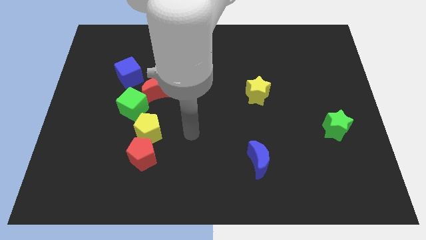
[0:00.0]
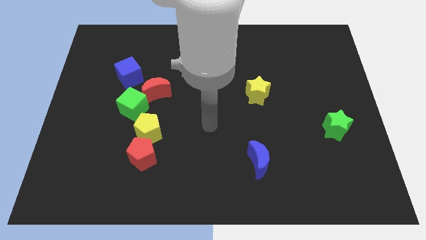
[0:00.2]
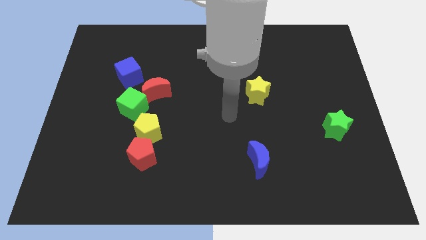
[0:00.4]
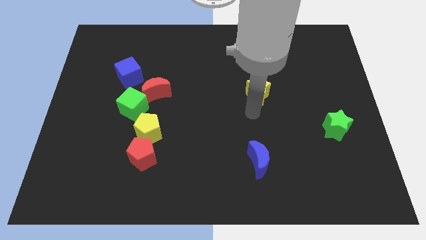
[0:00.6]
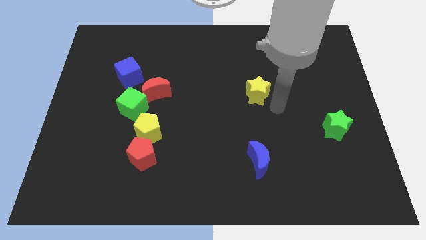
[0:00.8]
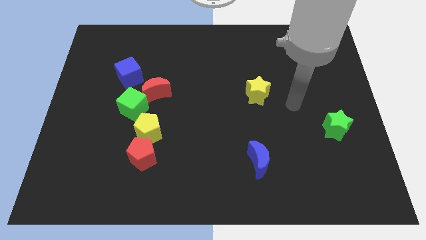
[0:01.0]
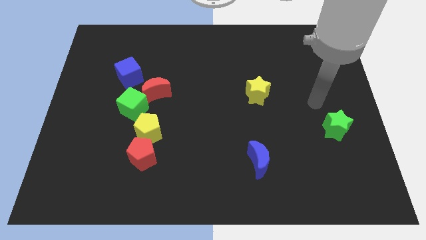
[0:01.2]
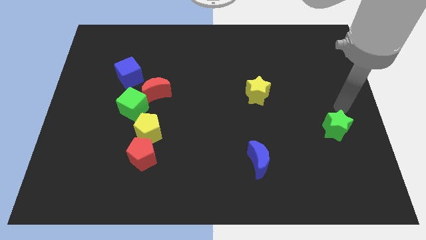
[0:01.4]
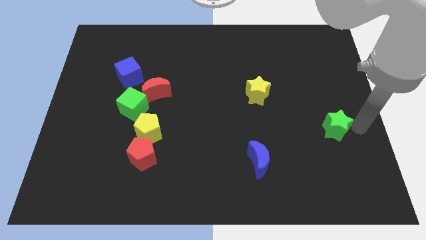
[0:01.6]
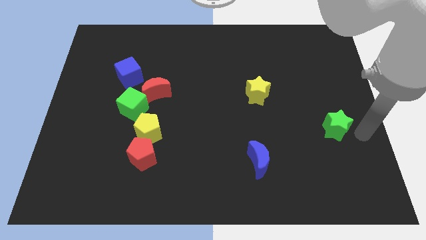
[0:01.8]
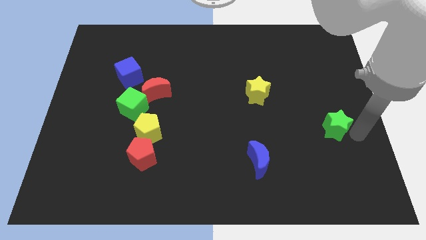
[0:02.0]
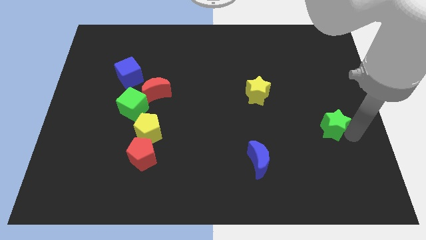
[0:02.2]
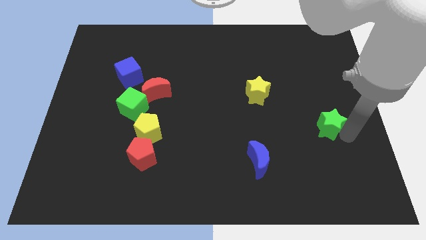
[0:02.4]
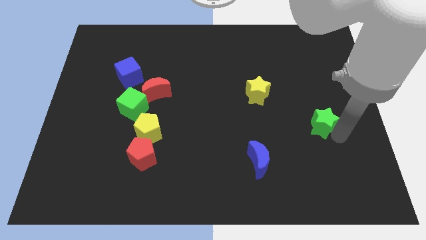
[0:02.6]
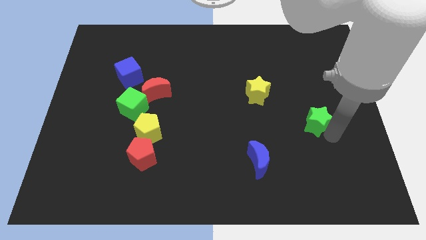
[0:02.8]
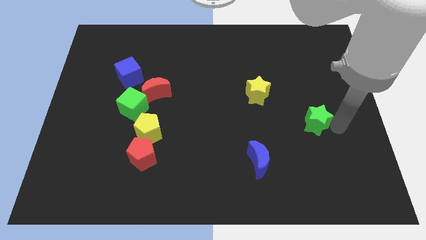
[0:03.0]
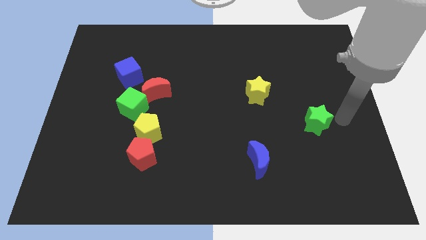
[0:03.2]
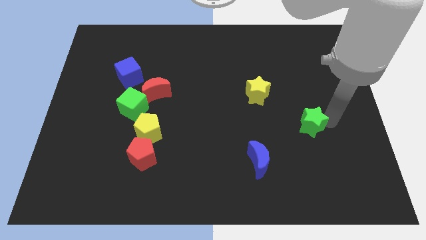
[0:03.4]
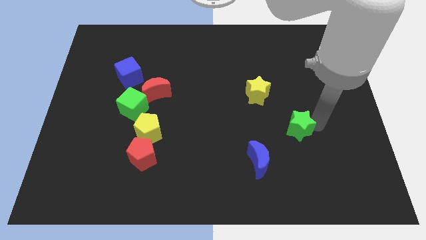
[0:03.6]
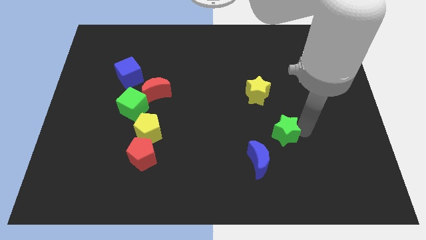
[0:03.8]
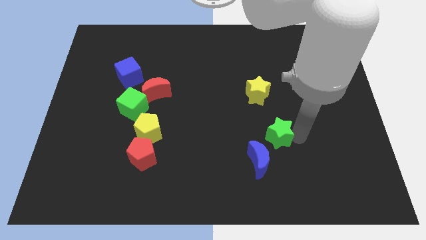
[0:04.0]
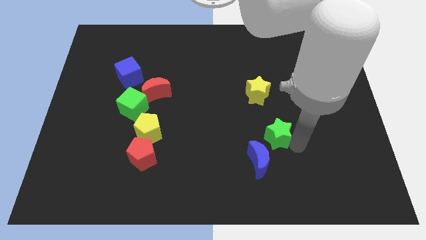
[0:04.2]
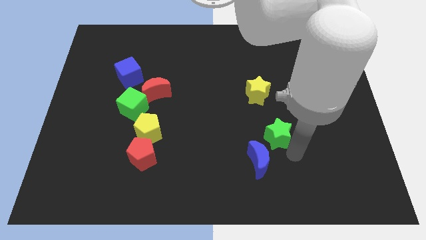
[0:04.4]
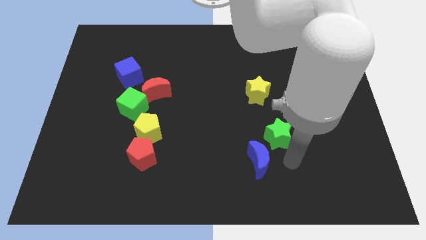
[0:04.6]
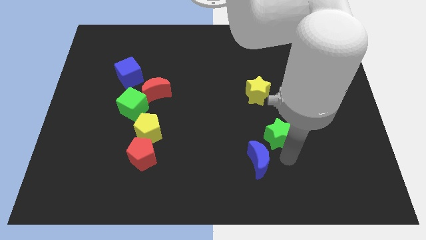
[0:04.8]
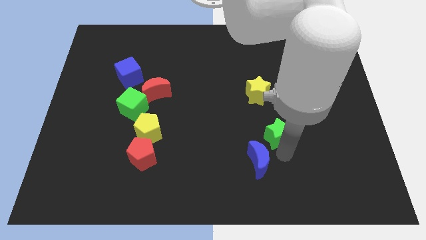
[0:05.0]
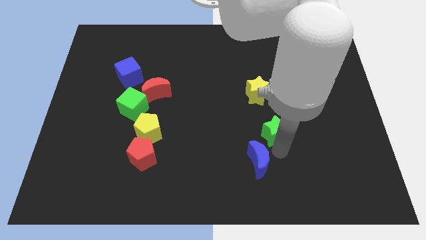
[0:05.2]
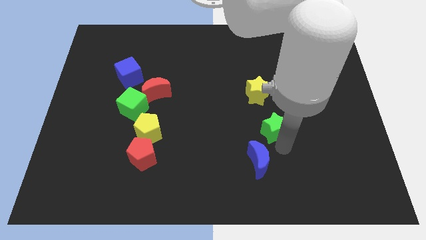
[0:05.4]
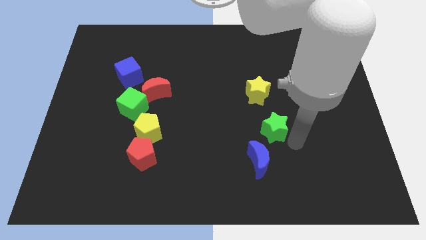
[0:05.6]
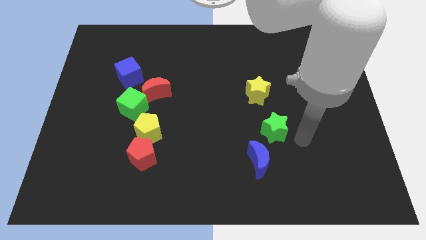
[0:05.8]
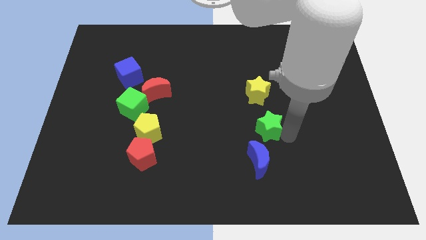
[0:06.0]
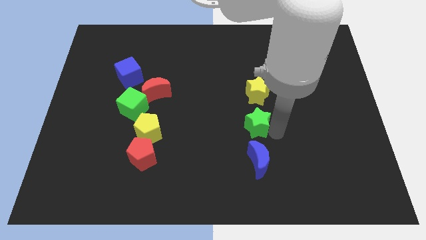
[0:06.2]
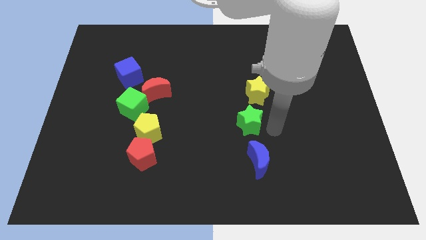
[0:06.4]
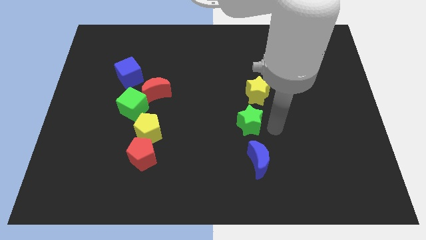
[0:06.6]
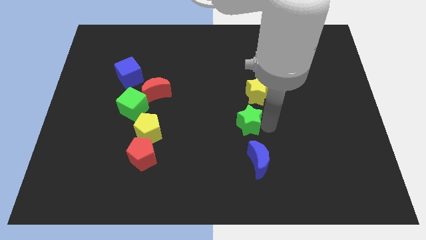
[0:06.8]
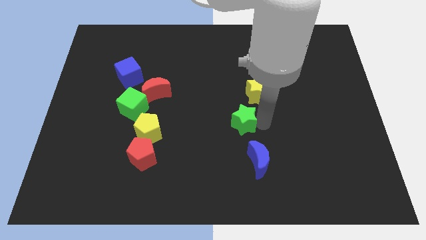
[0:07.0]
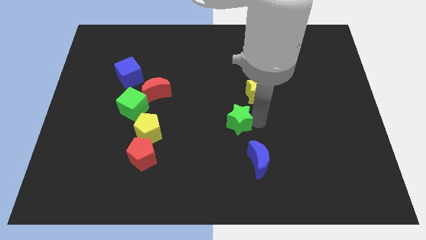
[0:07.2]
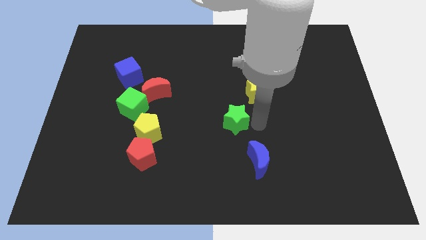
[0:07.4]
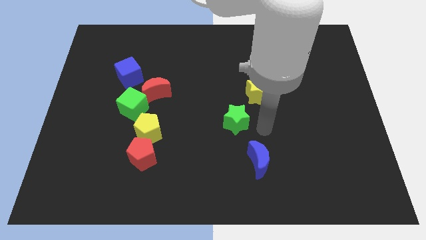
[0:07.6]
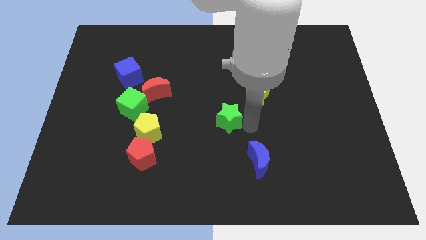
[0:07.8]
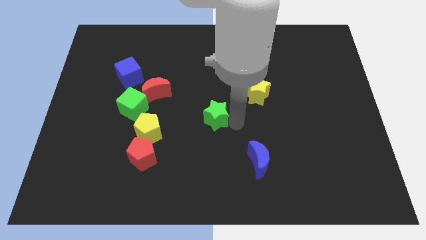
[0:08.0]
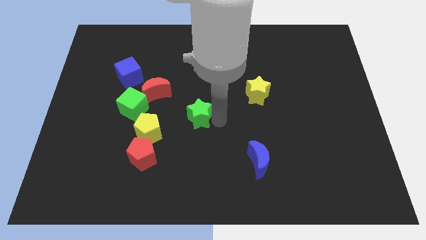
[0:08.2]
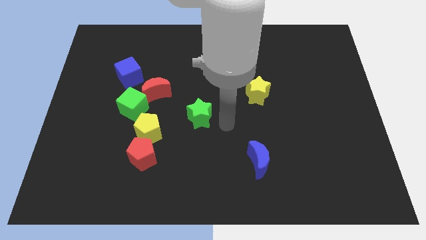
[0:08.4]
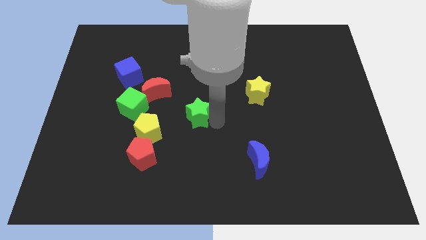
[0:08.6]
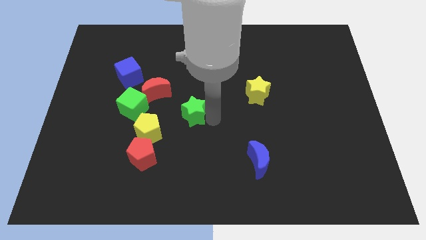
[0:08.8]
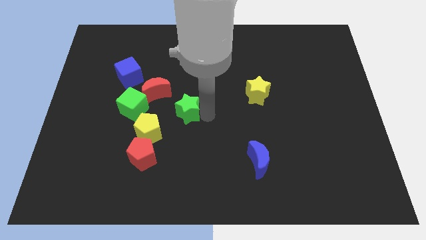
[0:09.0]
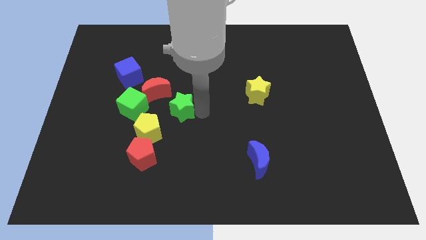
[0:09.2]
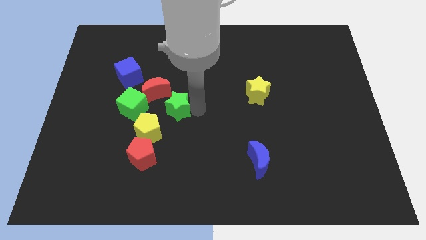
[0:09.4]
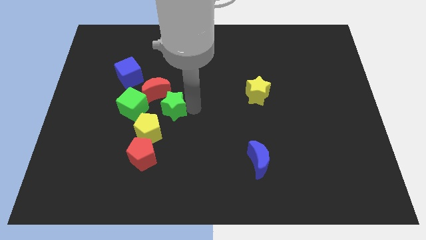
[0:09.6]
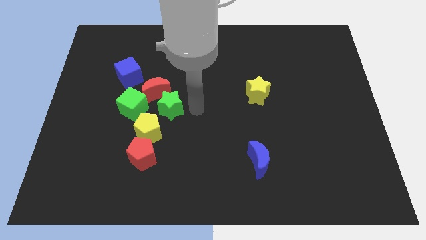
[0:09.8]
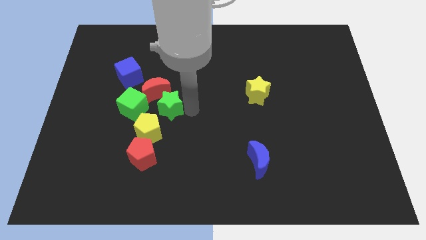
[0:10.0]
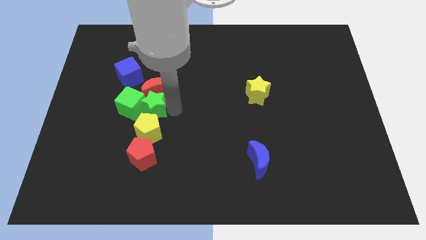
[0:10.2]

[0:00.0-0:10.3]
push the green star to the green cube

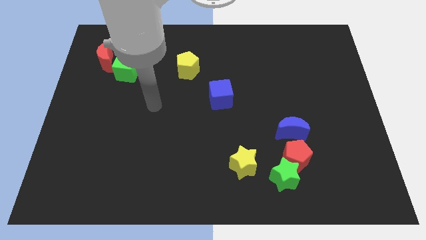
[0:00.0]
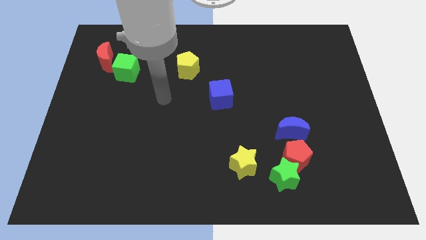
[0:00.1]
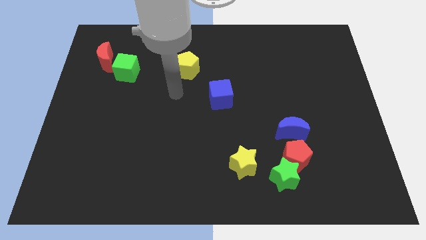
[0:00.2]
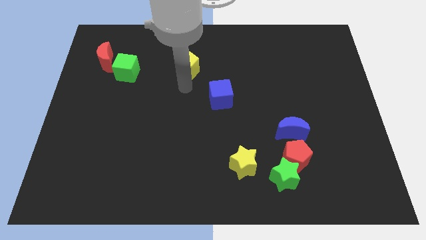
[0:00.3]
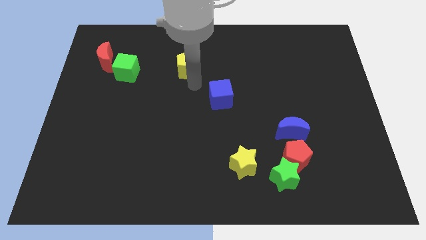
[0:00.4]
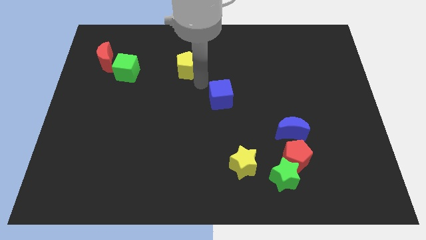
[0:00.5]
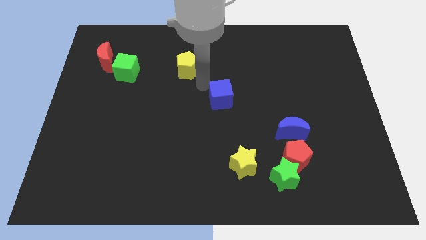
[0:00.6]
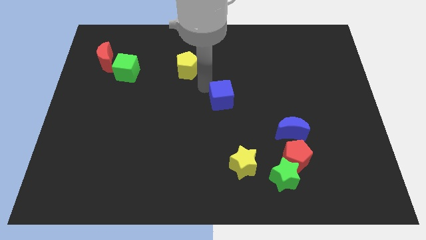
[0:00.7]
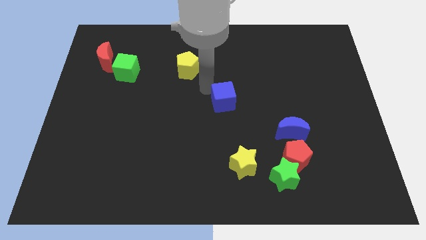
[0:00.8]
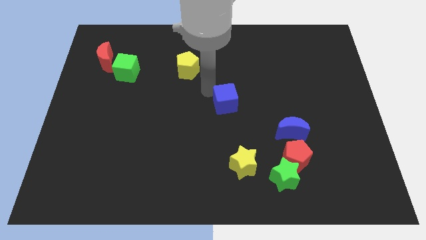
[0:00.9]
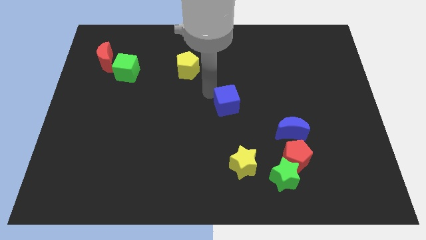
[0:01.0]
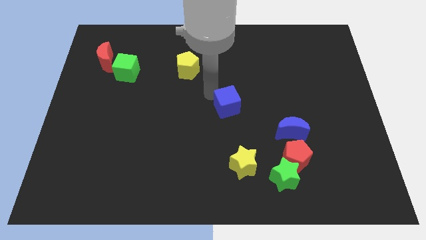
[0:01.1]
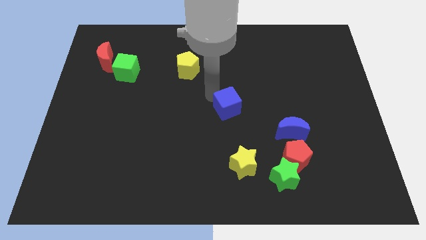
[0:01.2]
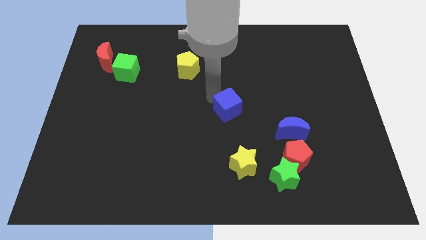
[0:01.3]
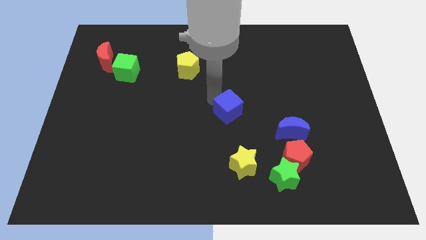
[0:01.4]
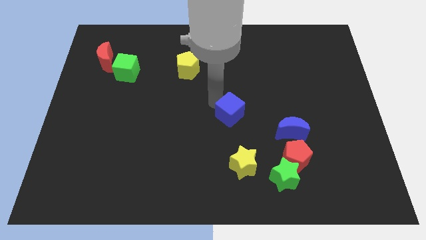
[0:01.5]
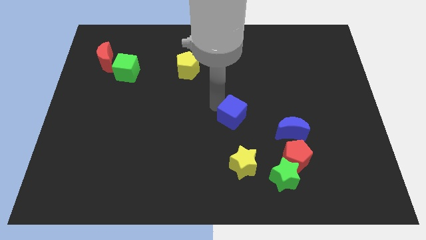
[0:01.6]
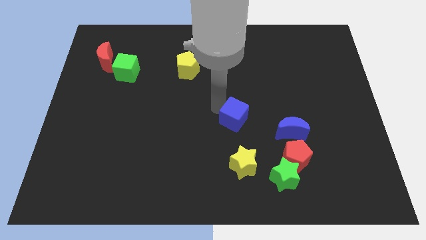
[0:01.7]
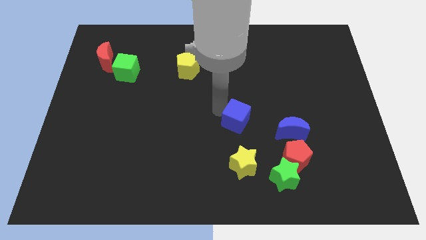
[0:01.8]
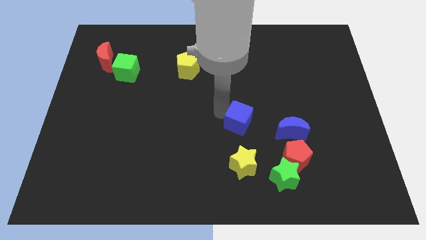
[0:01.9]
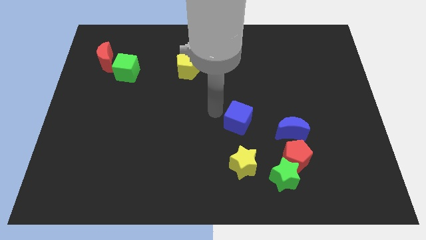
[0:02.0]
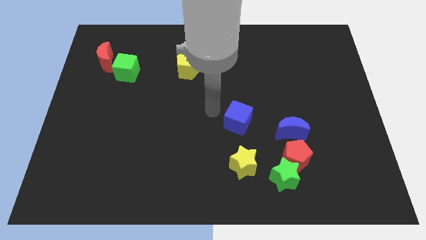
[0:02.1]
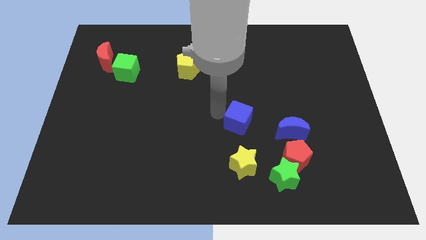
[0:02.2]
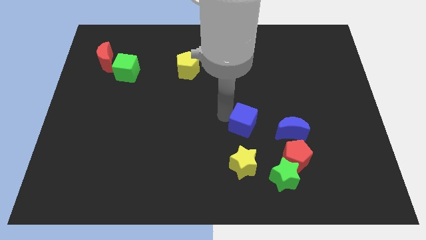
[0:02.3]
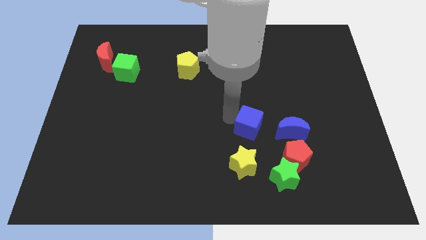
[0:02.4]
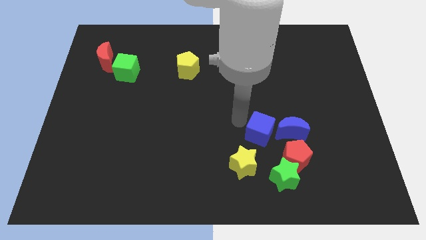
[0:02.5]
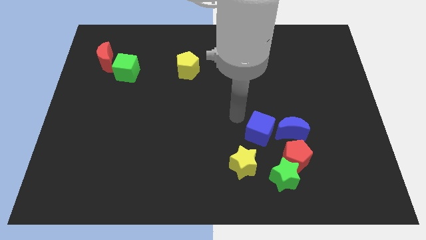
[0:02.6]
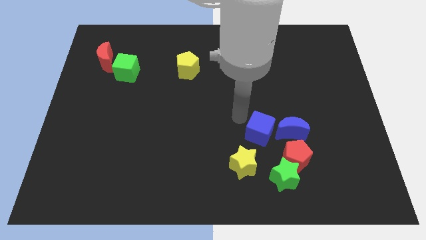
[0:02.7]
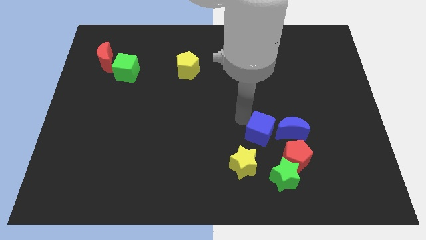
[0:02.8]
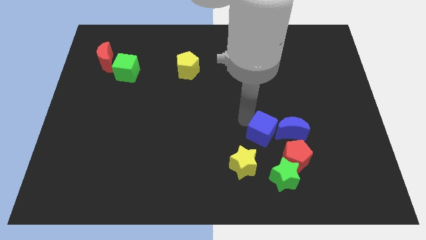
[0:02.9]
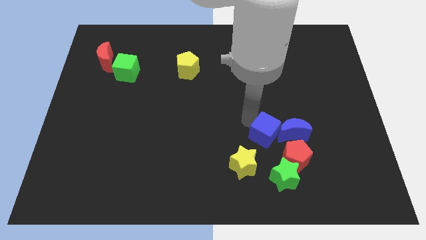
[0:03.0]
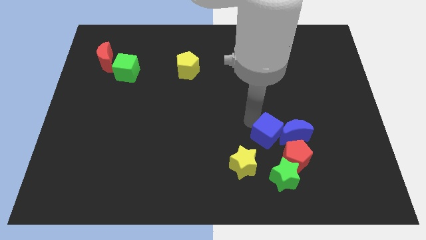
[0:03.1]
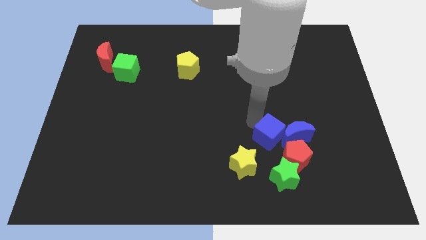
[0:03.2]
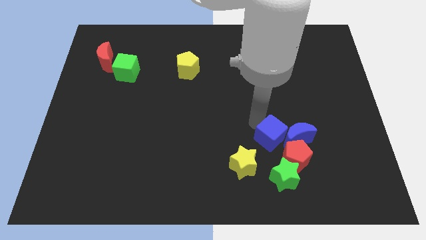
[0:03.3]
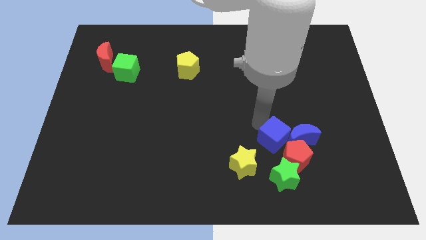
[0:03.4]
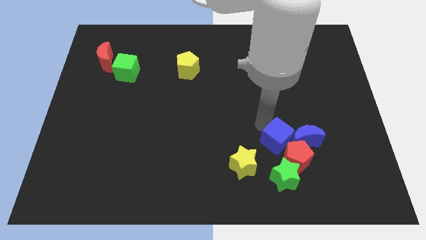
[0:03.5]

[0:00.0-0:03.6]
slide the blue cube to the red pentagon
